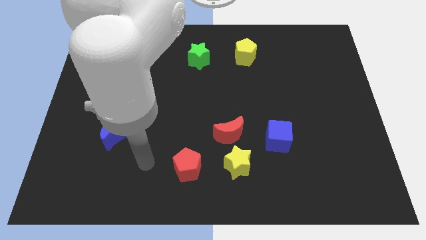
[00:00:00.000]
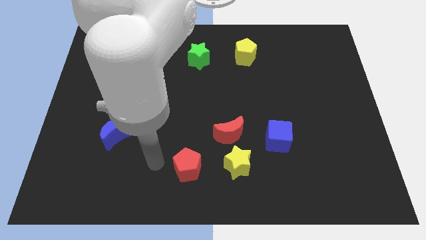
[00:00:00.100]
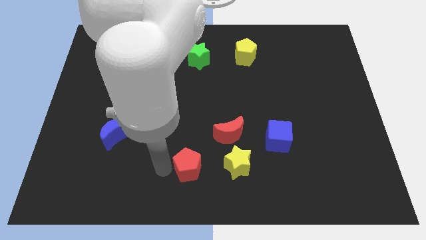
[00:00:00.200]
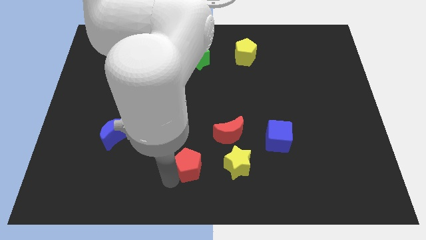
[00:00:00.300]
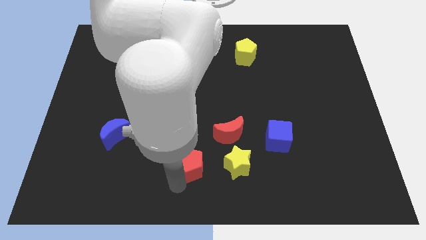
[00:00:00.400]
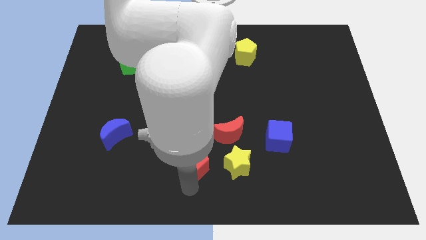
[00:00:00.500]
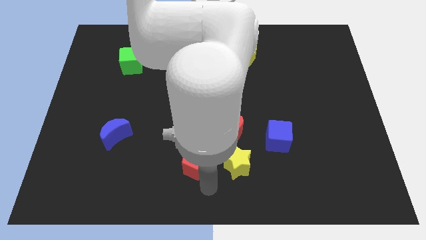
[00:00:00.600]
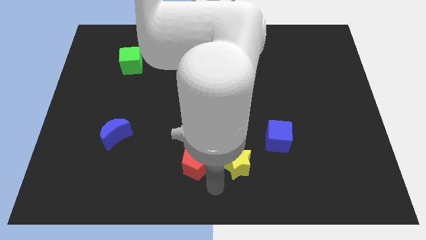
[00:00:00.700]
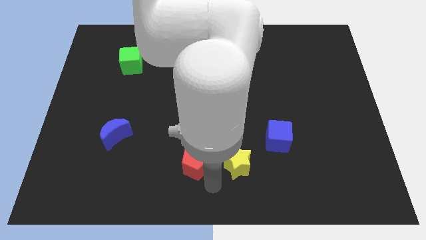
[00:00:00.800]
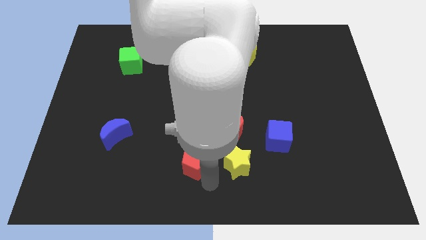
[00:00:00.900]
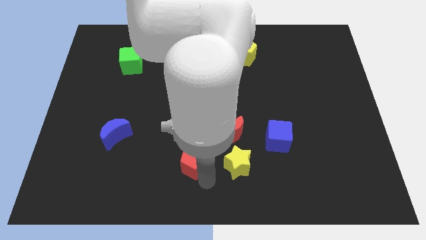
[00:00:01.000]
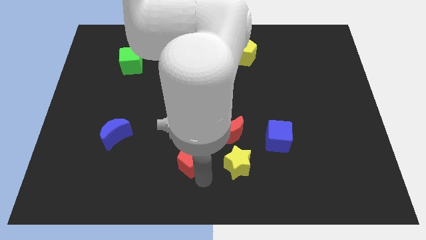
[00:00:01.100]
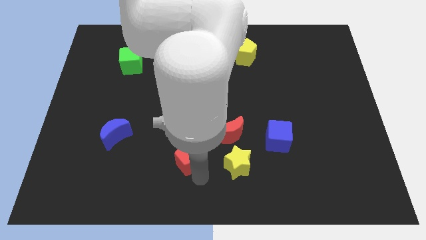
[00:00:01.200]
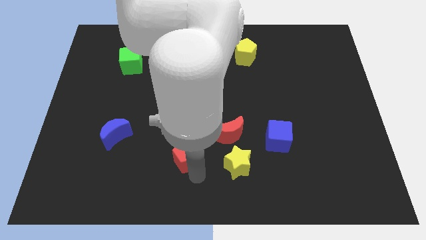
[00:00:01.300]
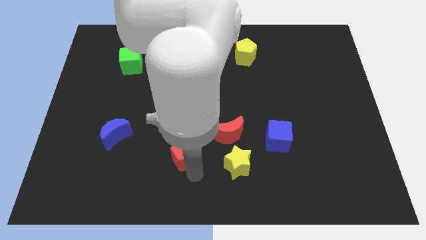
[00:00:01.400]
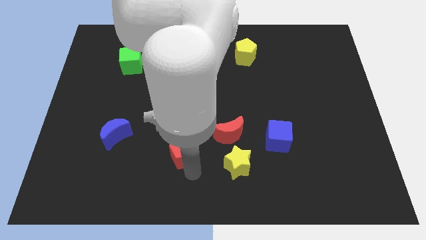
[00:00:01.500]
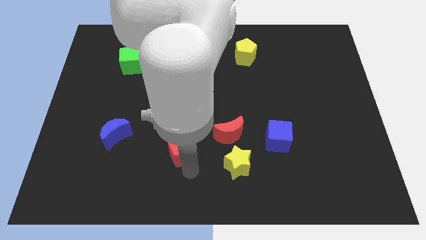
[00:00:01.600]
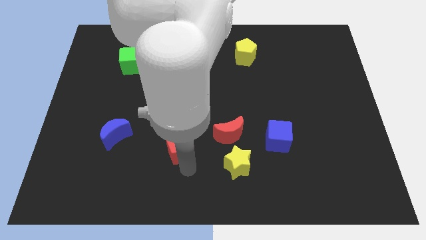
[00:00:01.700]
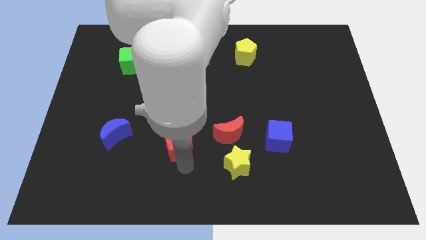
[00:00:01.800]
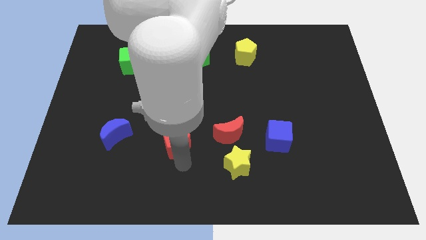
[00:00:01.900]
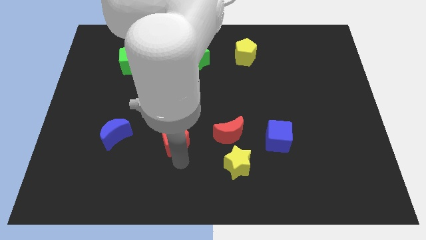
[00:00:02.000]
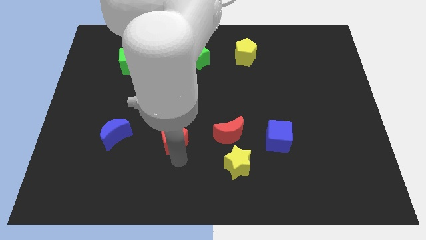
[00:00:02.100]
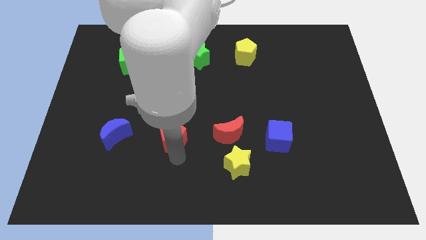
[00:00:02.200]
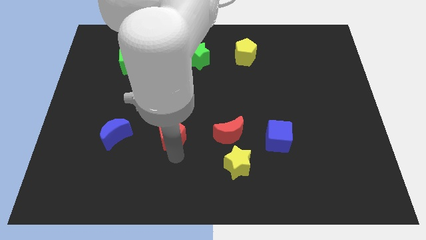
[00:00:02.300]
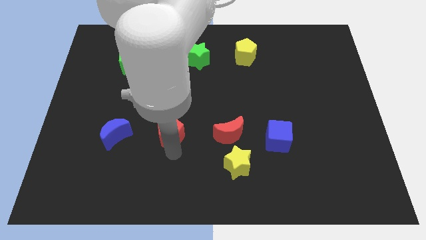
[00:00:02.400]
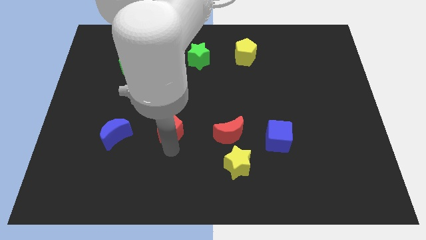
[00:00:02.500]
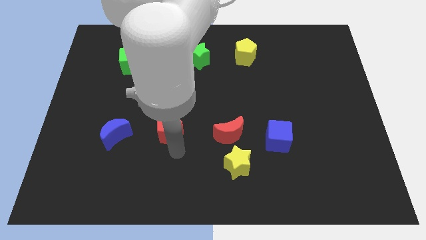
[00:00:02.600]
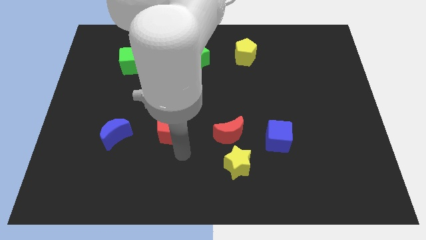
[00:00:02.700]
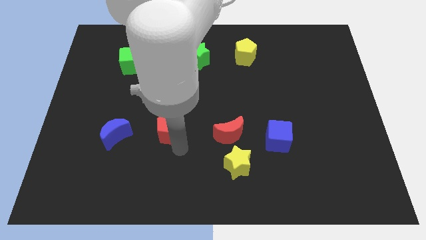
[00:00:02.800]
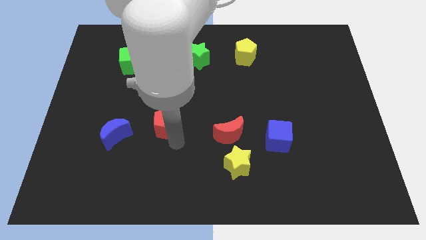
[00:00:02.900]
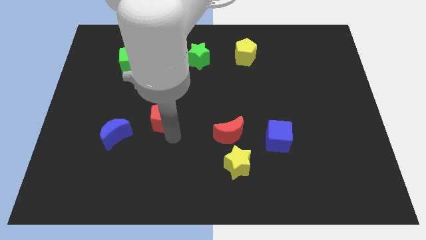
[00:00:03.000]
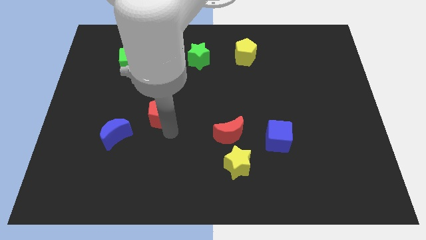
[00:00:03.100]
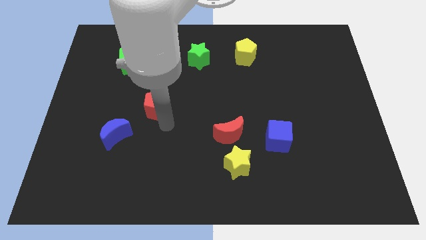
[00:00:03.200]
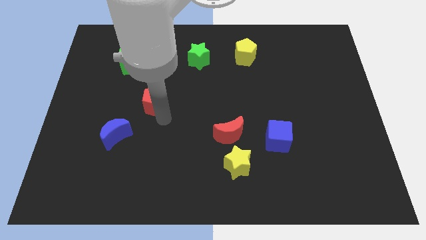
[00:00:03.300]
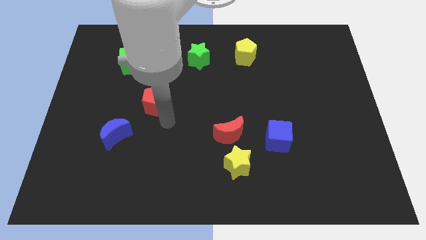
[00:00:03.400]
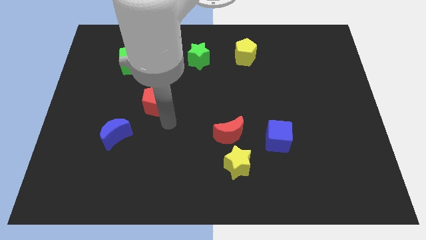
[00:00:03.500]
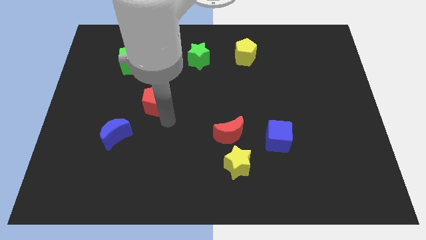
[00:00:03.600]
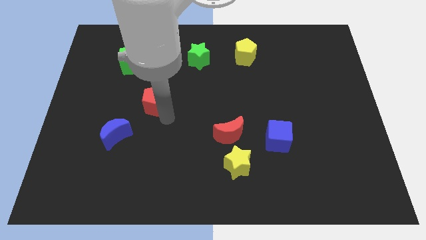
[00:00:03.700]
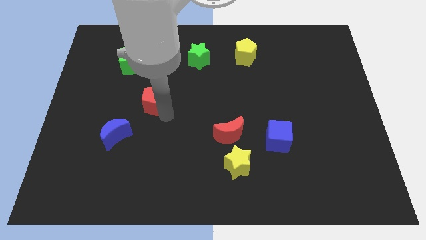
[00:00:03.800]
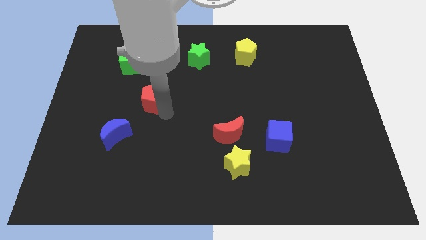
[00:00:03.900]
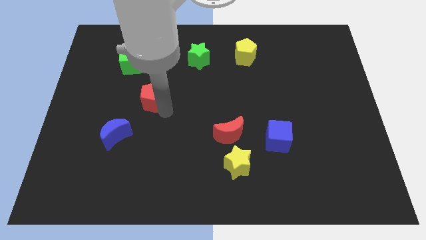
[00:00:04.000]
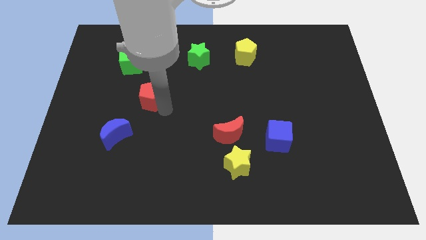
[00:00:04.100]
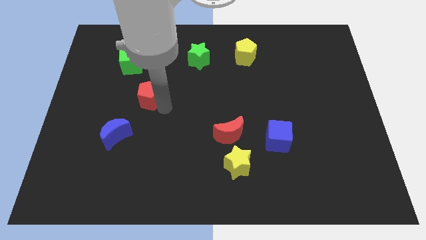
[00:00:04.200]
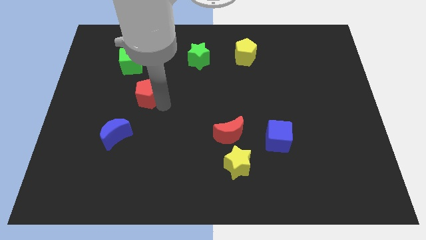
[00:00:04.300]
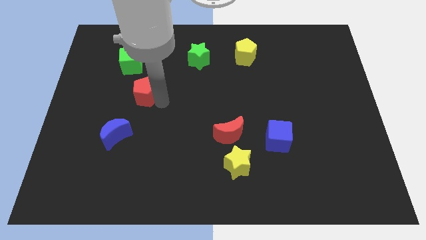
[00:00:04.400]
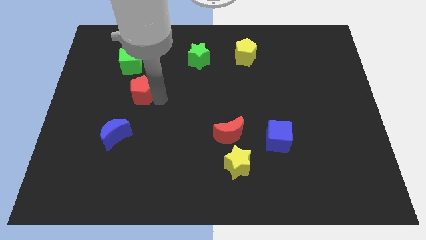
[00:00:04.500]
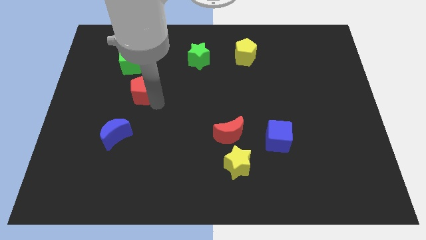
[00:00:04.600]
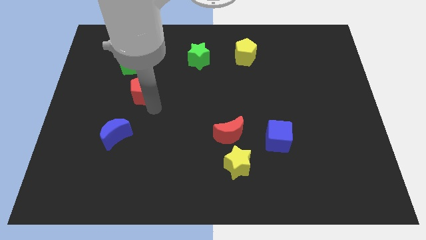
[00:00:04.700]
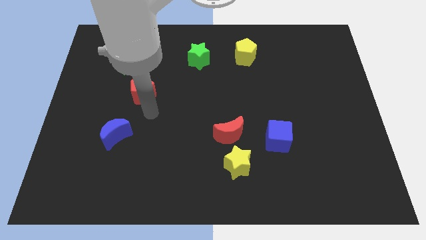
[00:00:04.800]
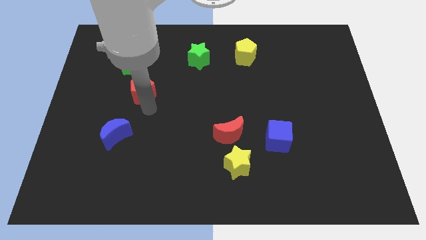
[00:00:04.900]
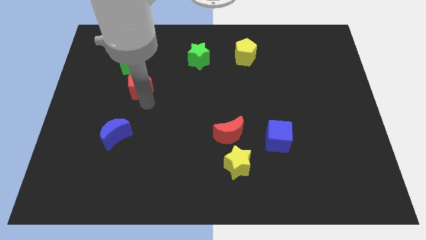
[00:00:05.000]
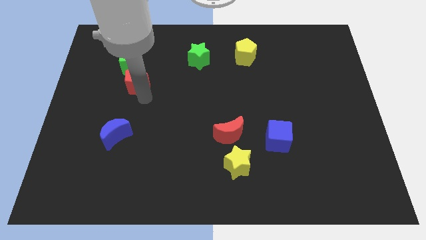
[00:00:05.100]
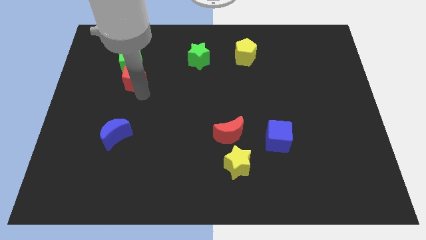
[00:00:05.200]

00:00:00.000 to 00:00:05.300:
push the red pentagon towards the green cube

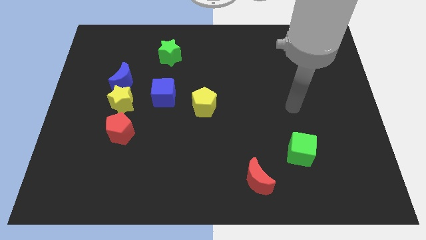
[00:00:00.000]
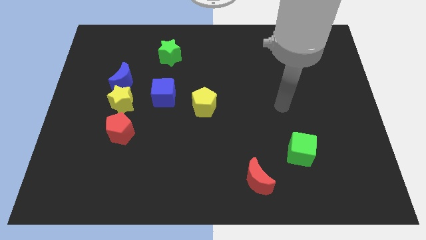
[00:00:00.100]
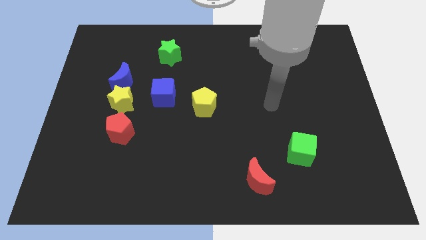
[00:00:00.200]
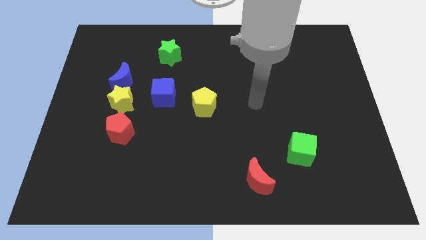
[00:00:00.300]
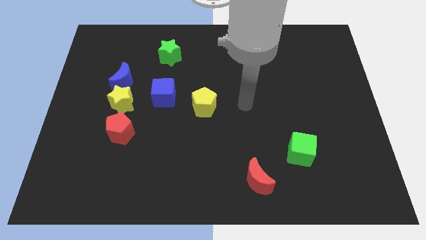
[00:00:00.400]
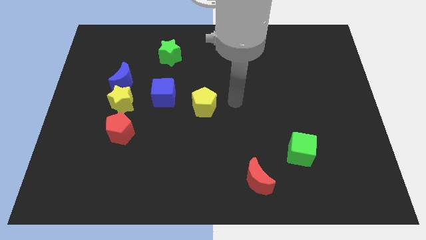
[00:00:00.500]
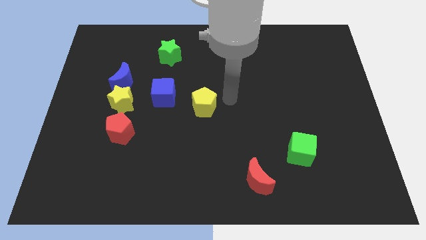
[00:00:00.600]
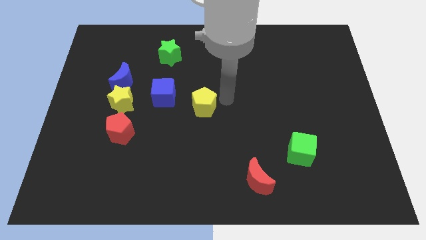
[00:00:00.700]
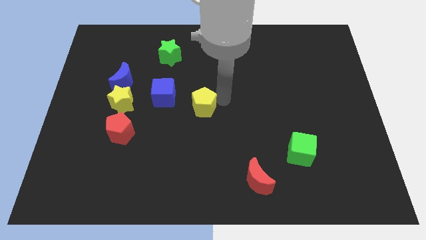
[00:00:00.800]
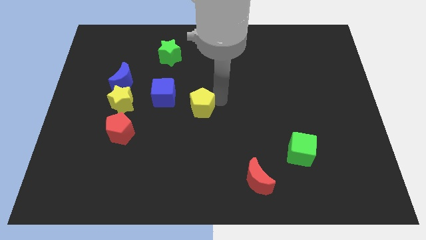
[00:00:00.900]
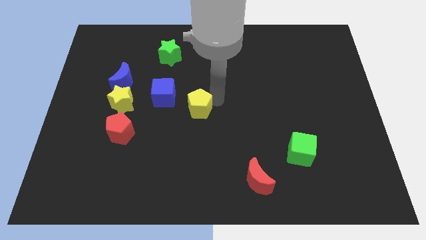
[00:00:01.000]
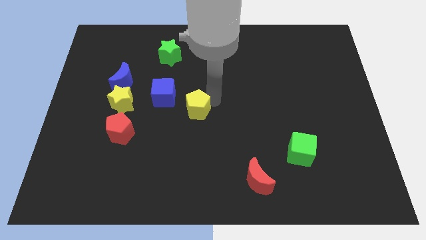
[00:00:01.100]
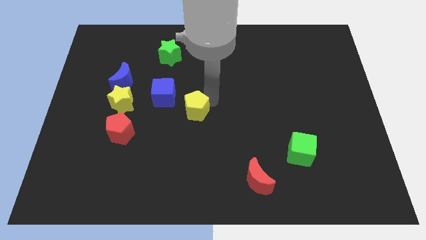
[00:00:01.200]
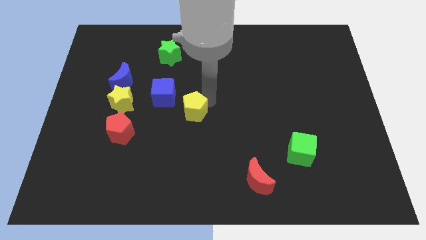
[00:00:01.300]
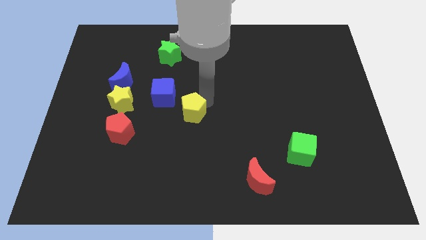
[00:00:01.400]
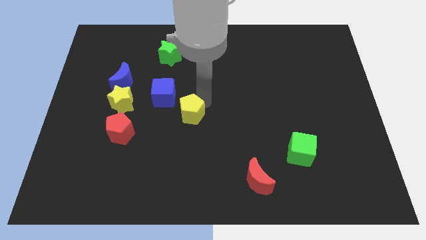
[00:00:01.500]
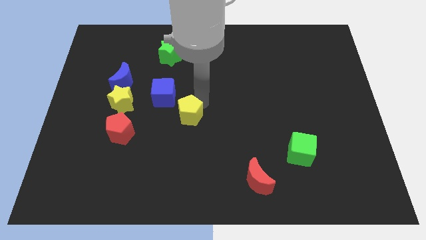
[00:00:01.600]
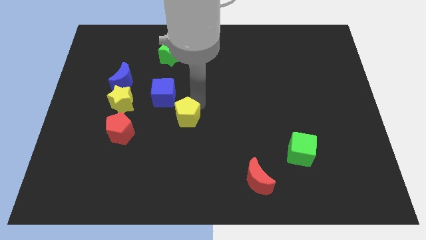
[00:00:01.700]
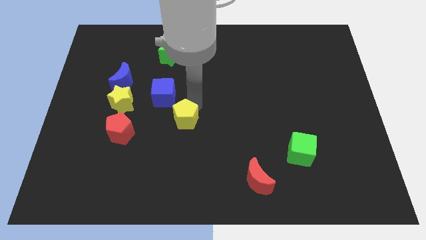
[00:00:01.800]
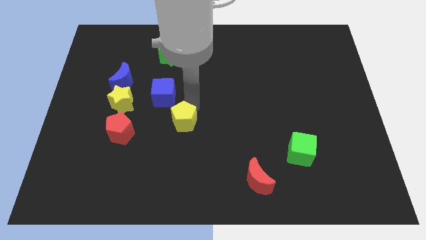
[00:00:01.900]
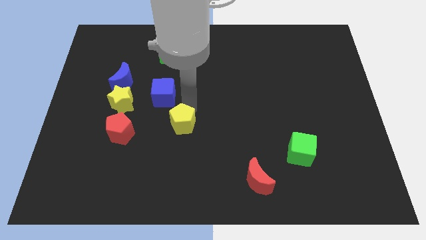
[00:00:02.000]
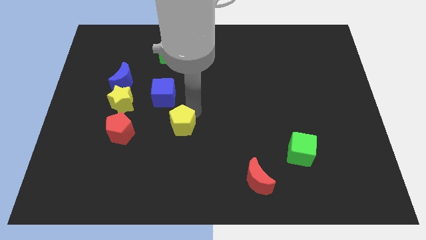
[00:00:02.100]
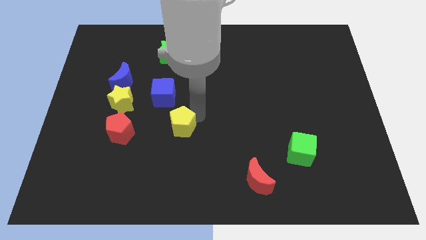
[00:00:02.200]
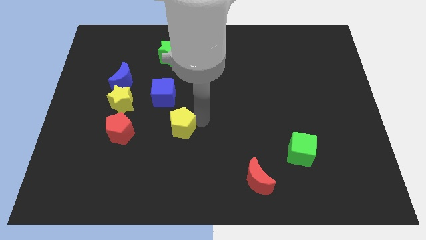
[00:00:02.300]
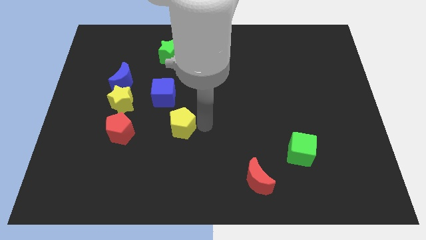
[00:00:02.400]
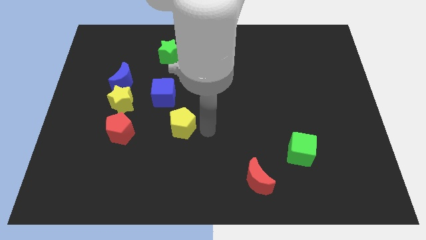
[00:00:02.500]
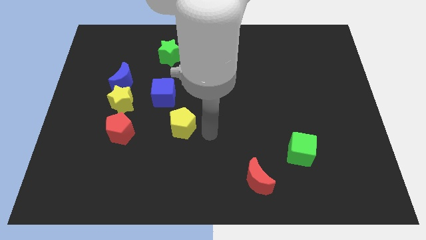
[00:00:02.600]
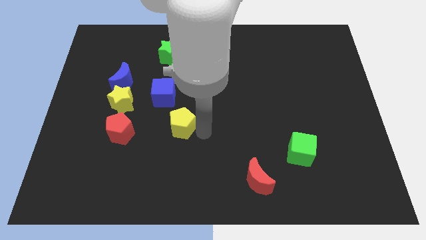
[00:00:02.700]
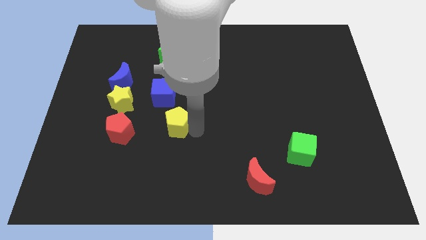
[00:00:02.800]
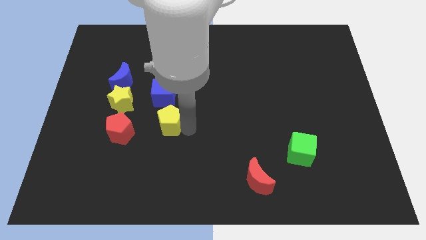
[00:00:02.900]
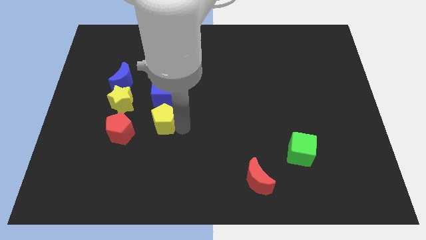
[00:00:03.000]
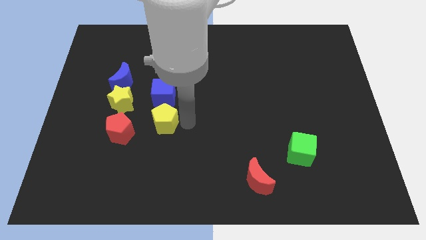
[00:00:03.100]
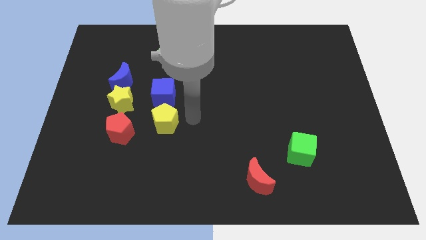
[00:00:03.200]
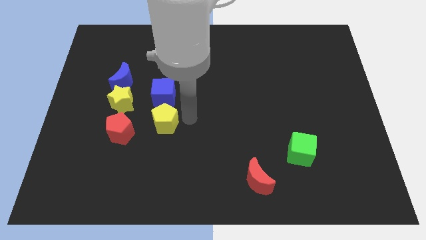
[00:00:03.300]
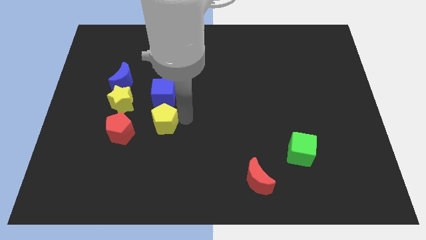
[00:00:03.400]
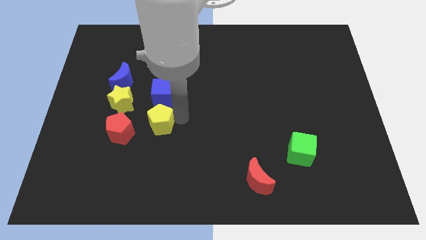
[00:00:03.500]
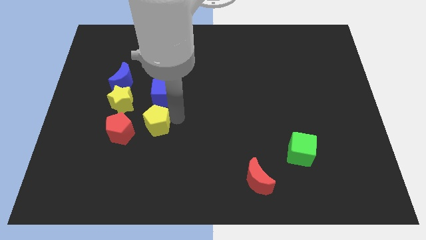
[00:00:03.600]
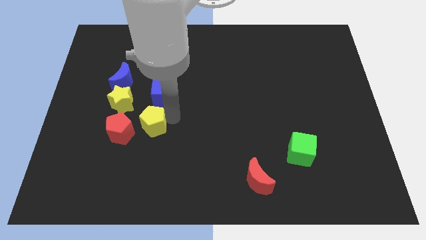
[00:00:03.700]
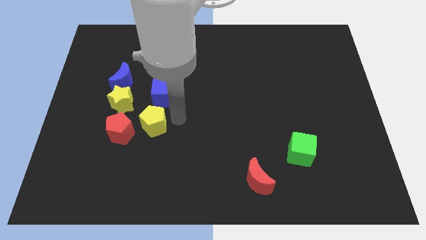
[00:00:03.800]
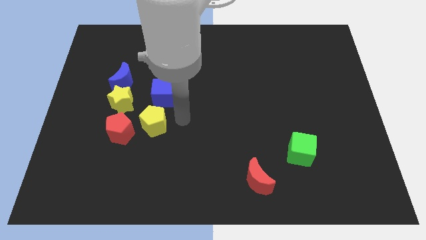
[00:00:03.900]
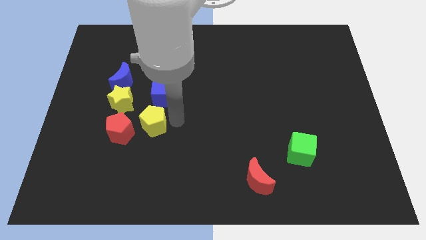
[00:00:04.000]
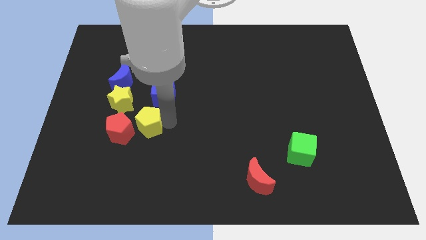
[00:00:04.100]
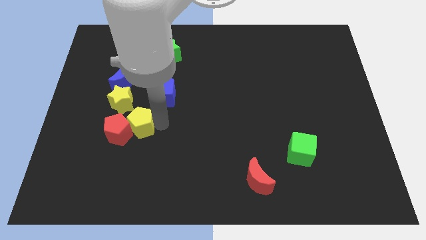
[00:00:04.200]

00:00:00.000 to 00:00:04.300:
push the yellow pentagon to the red pentagon
